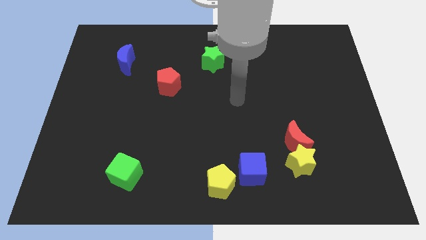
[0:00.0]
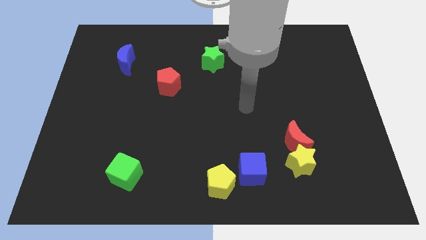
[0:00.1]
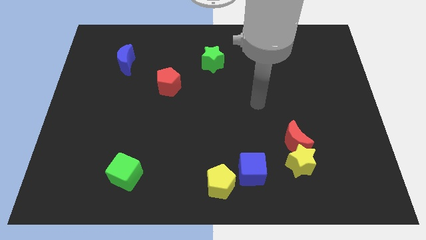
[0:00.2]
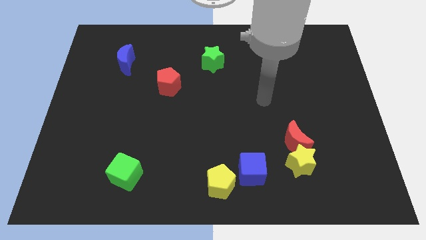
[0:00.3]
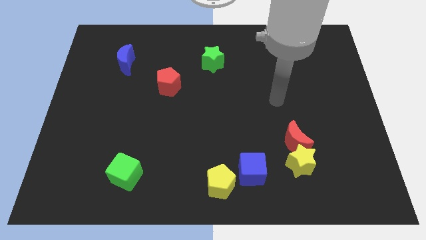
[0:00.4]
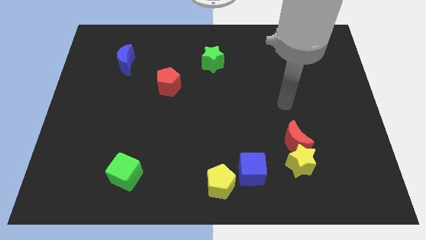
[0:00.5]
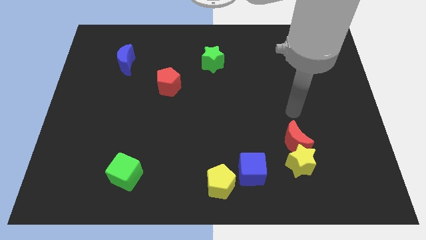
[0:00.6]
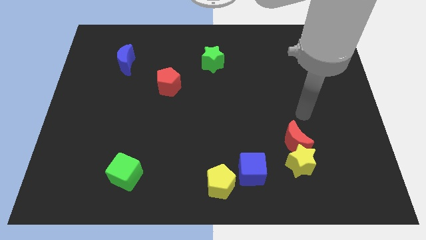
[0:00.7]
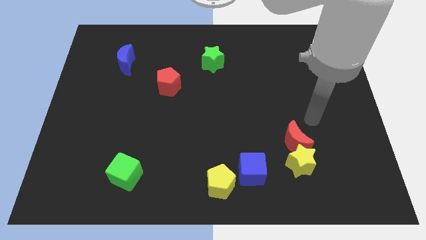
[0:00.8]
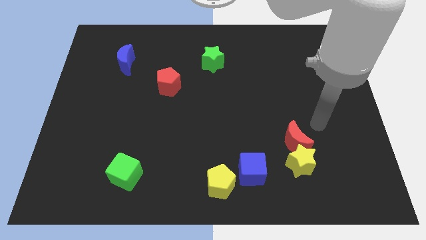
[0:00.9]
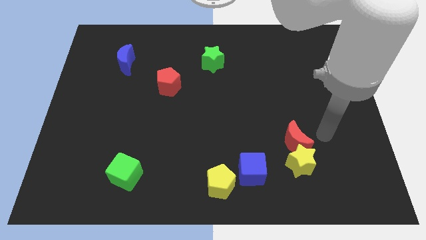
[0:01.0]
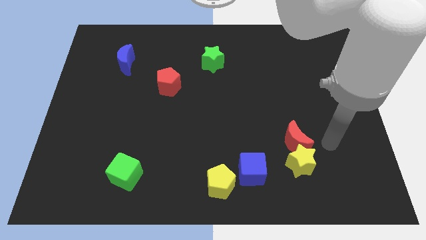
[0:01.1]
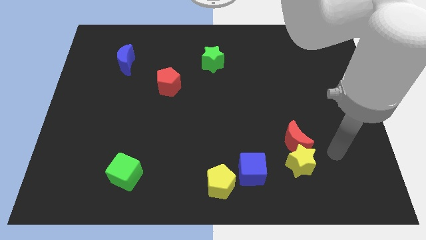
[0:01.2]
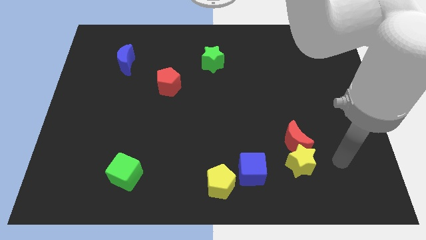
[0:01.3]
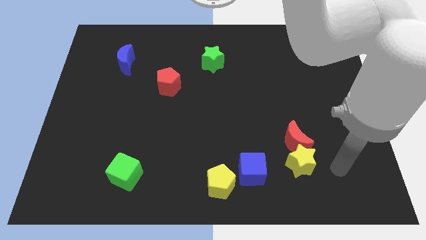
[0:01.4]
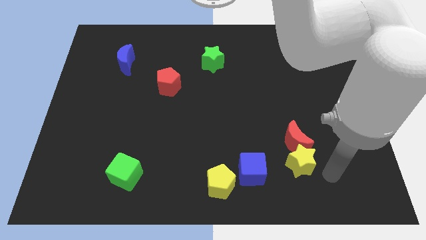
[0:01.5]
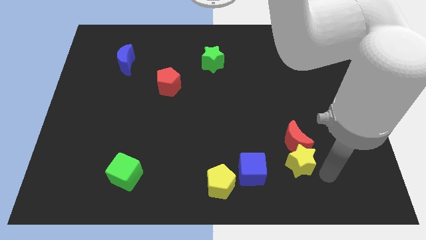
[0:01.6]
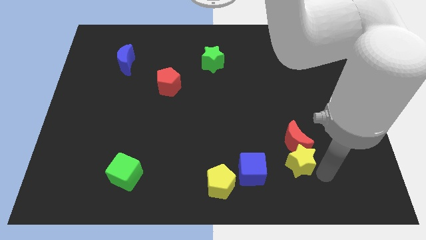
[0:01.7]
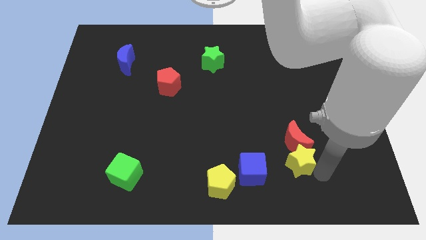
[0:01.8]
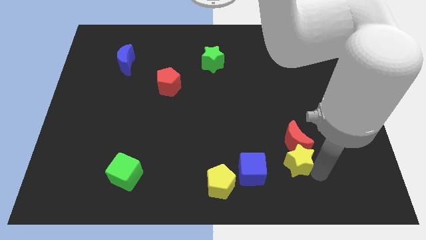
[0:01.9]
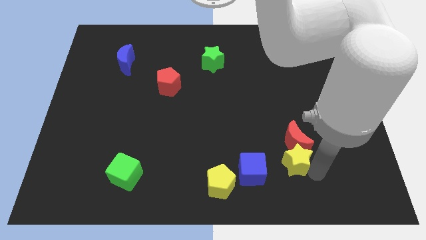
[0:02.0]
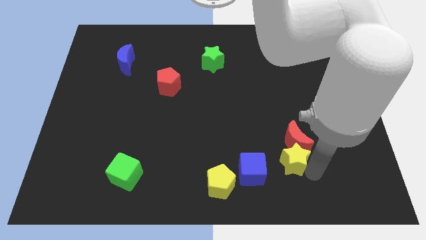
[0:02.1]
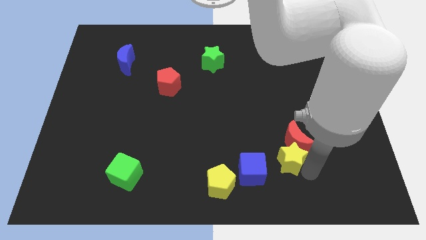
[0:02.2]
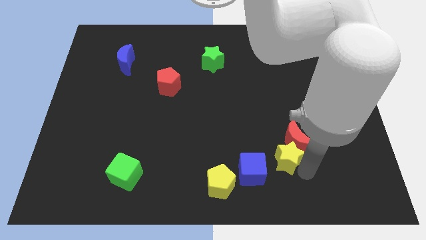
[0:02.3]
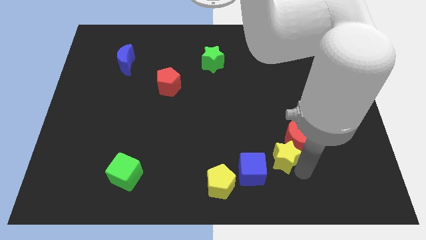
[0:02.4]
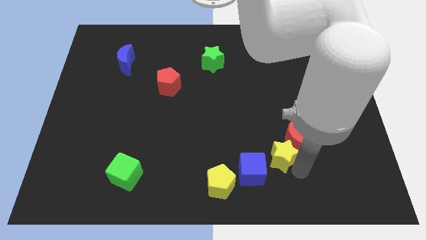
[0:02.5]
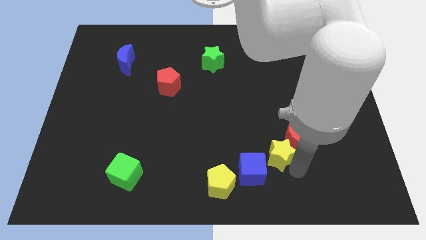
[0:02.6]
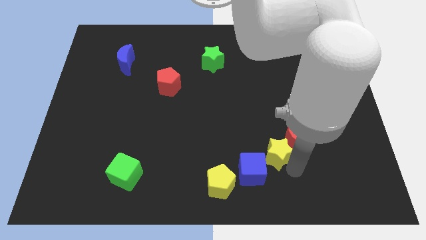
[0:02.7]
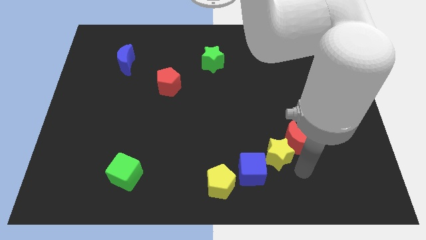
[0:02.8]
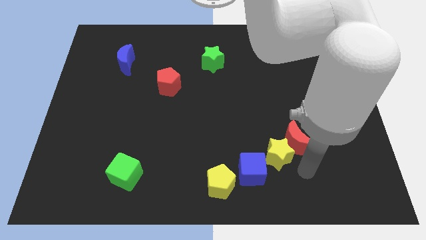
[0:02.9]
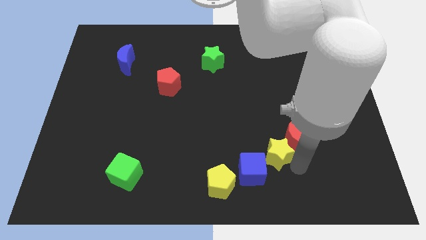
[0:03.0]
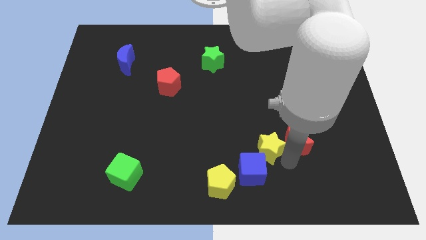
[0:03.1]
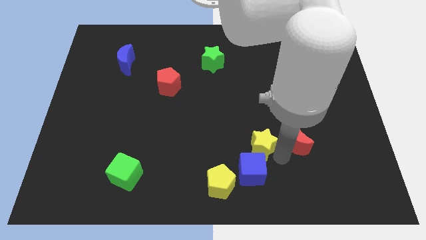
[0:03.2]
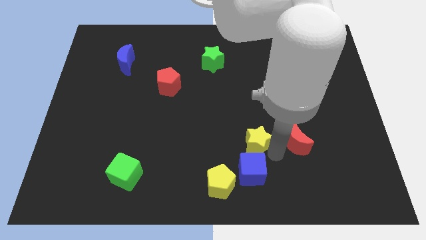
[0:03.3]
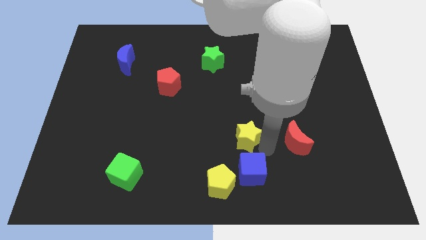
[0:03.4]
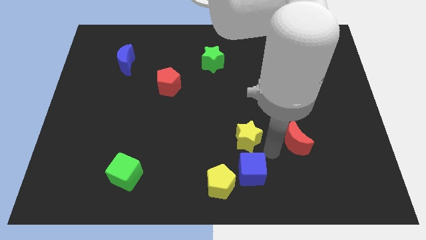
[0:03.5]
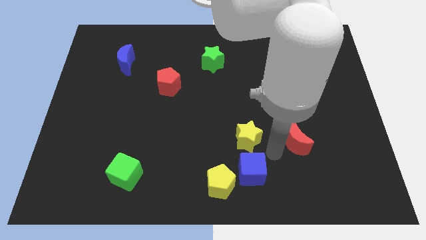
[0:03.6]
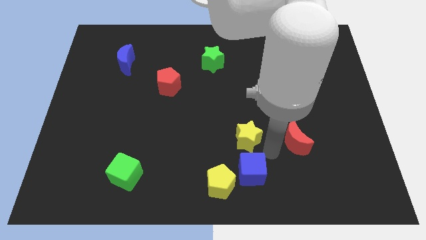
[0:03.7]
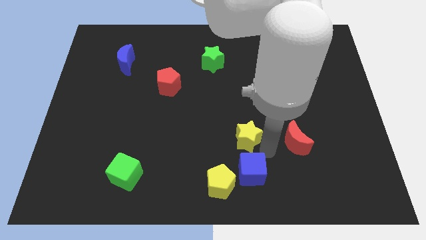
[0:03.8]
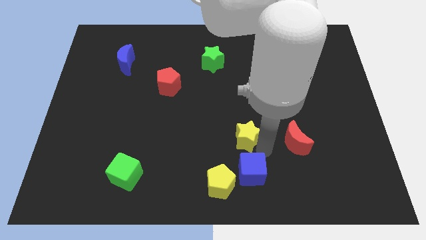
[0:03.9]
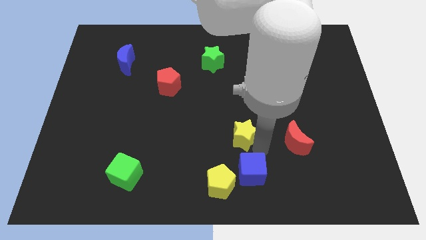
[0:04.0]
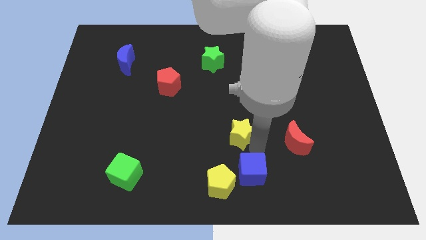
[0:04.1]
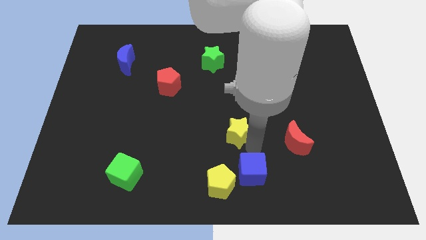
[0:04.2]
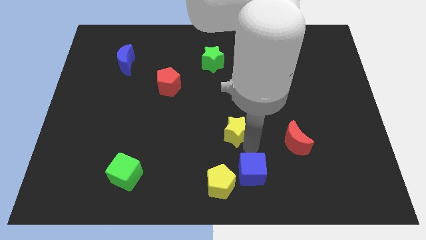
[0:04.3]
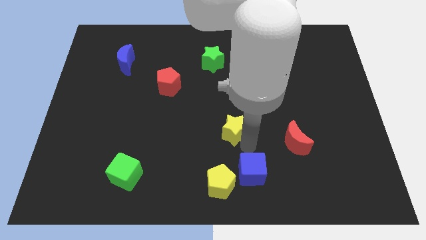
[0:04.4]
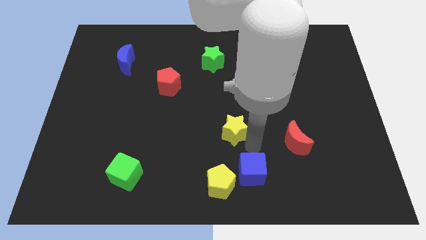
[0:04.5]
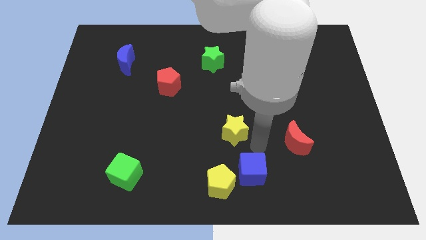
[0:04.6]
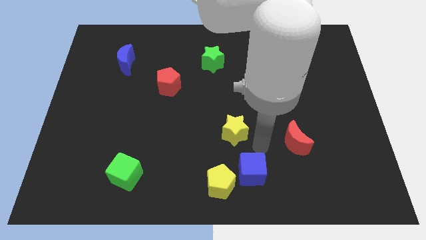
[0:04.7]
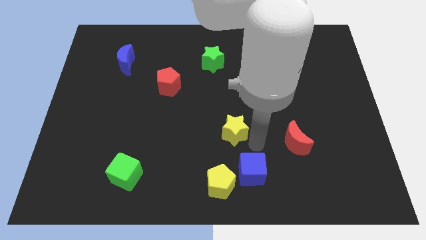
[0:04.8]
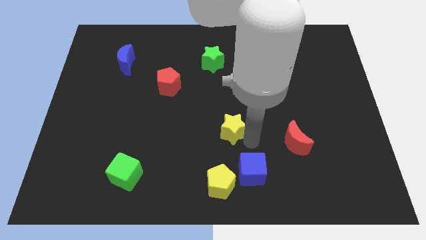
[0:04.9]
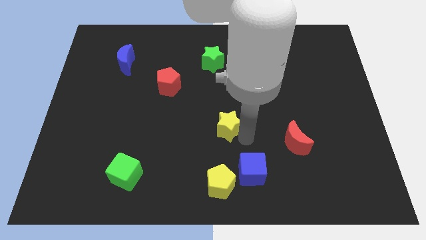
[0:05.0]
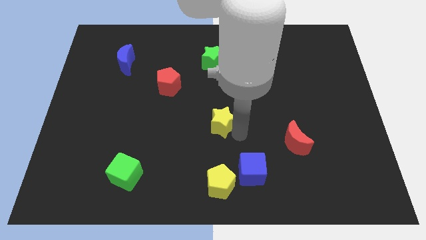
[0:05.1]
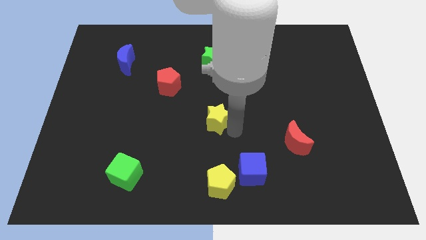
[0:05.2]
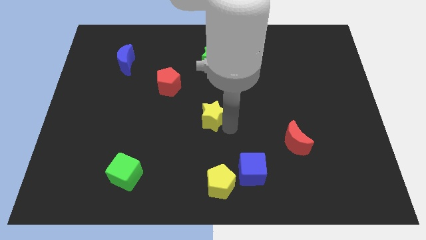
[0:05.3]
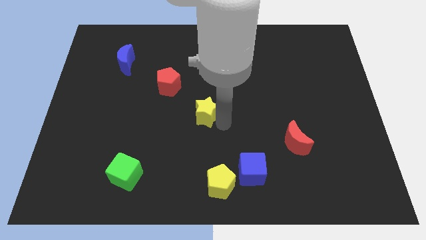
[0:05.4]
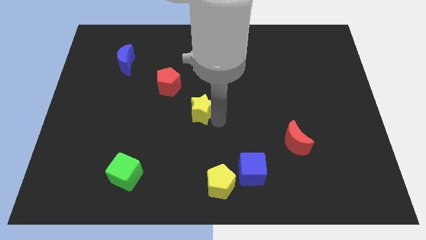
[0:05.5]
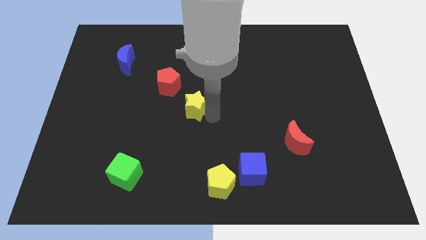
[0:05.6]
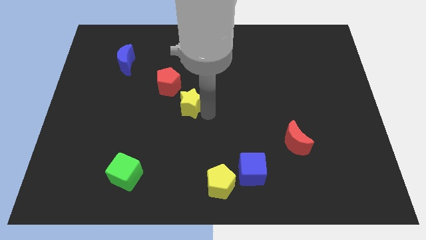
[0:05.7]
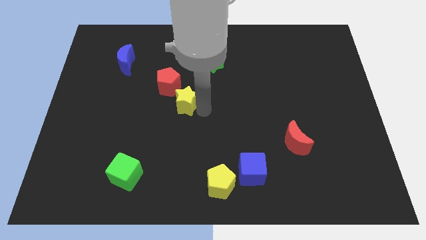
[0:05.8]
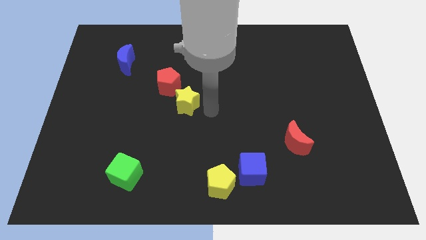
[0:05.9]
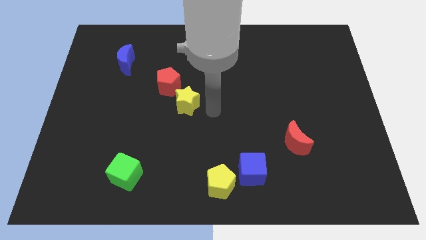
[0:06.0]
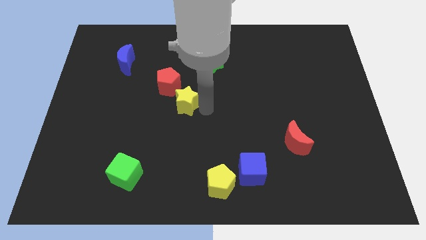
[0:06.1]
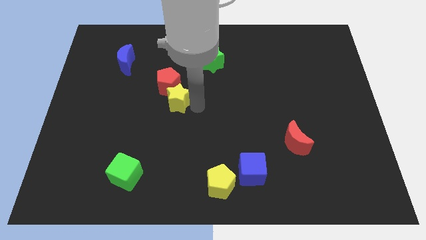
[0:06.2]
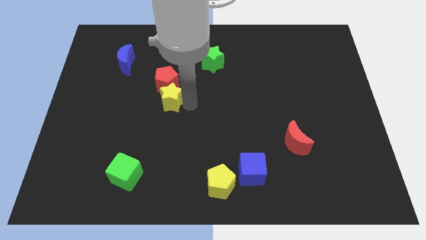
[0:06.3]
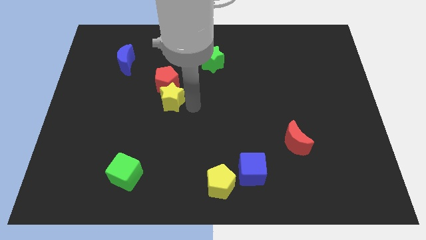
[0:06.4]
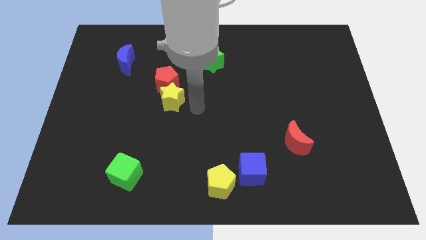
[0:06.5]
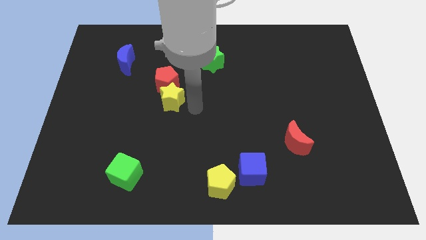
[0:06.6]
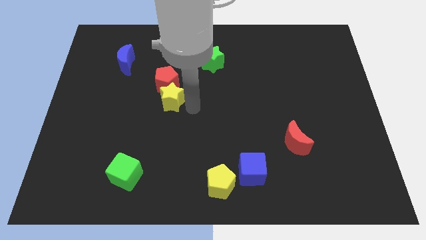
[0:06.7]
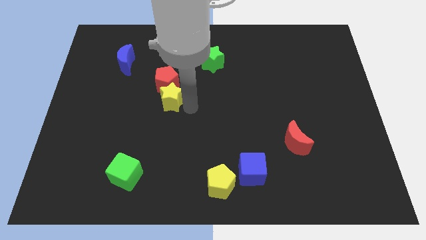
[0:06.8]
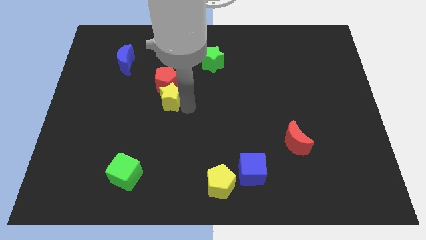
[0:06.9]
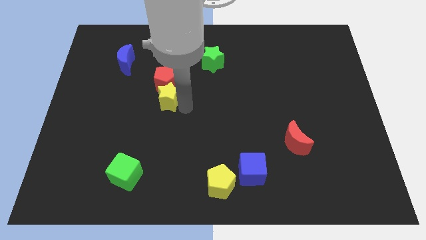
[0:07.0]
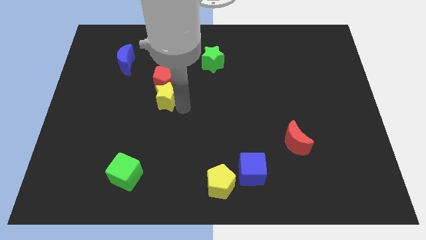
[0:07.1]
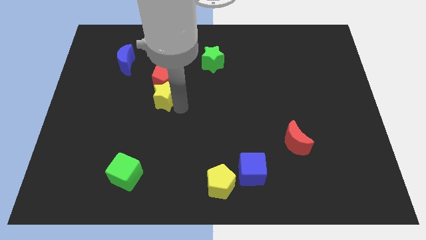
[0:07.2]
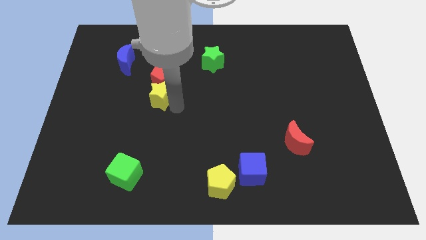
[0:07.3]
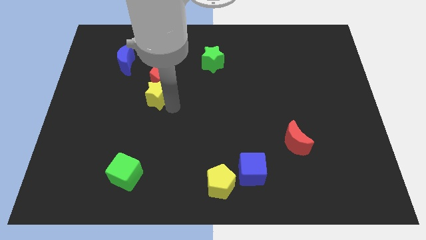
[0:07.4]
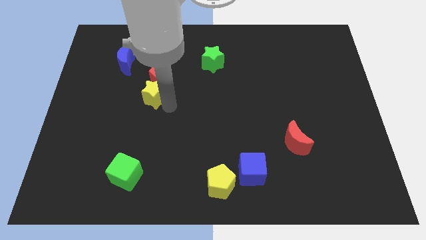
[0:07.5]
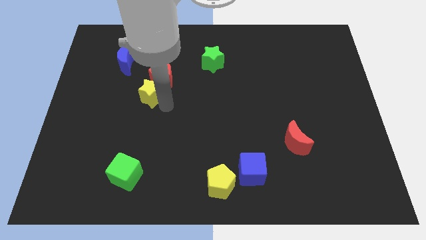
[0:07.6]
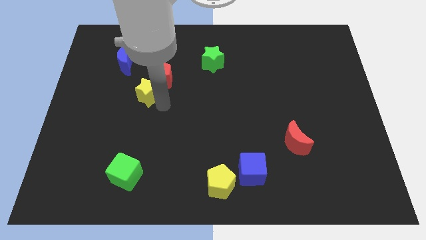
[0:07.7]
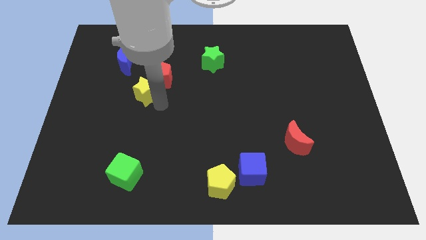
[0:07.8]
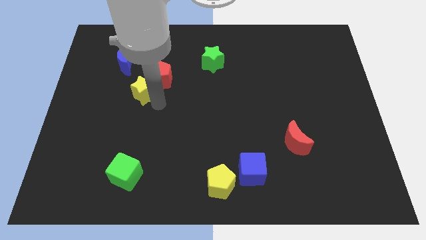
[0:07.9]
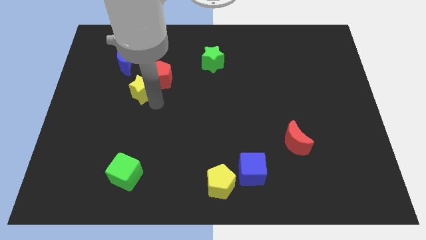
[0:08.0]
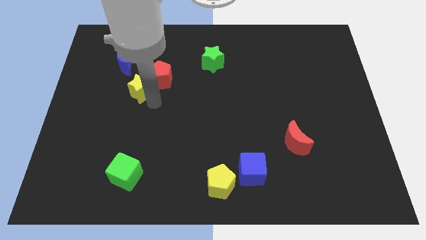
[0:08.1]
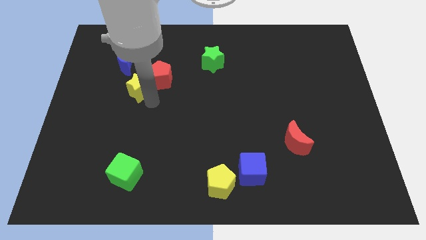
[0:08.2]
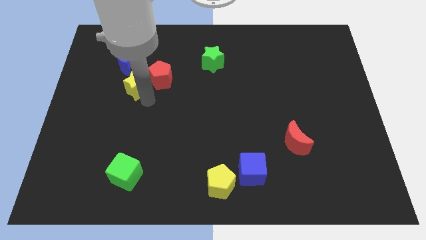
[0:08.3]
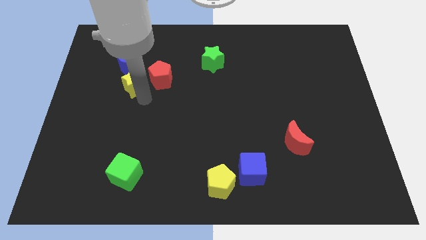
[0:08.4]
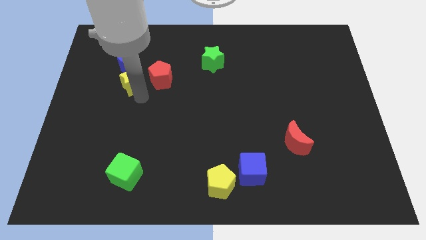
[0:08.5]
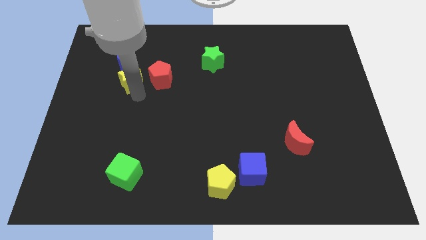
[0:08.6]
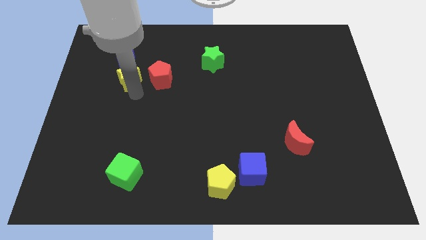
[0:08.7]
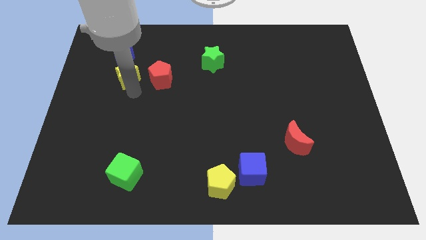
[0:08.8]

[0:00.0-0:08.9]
move the yellow star close to the blue moon
